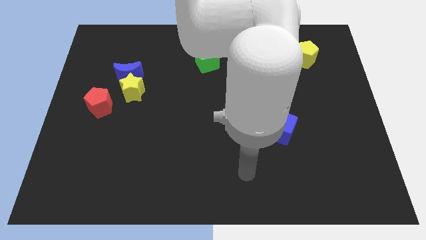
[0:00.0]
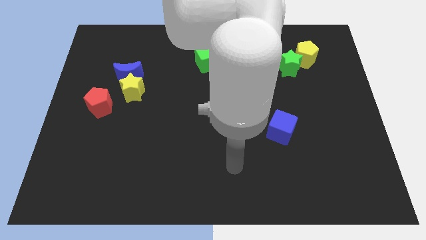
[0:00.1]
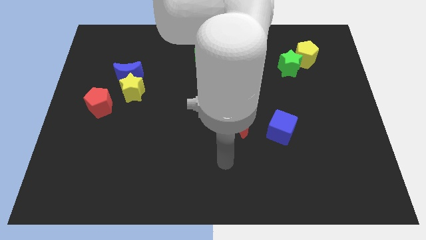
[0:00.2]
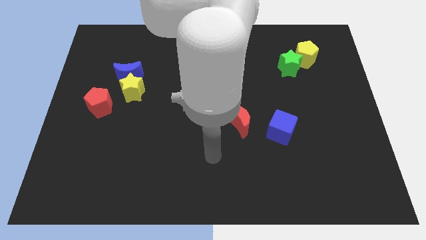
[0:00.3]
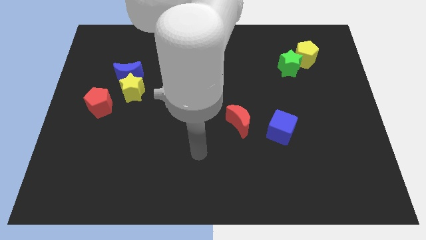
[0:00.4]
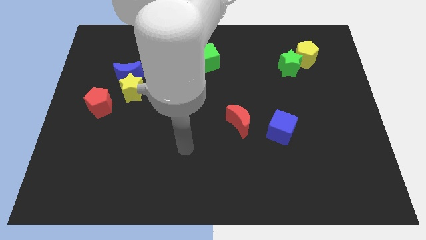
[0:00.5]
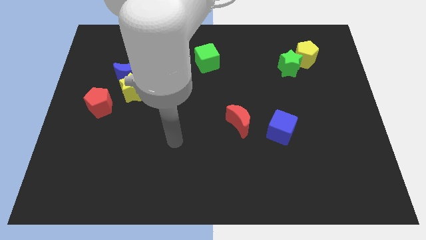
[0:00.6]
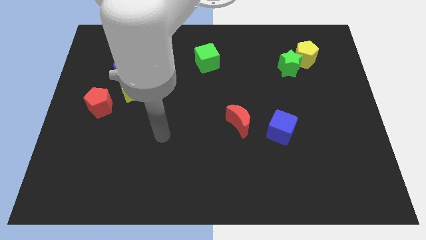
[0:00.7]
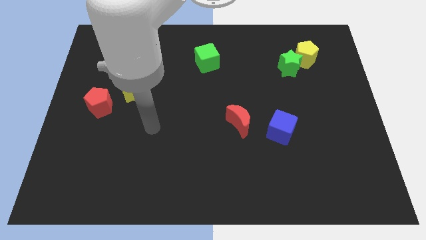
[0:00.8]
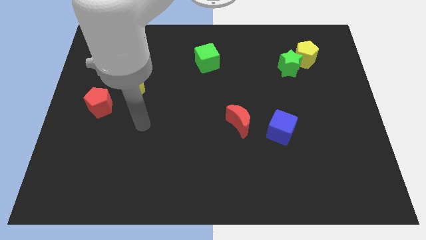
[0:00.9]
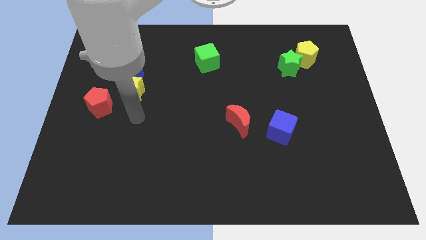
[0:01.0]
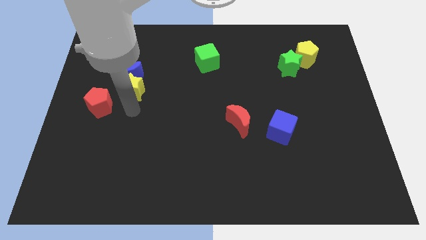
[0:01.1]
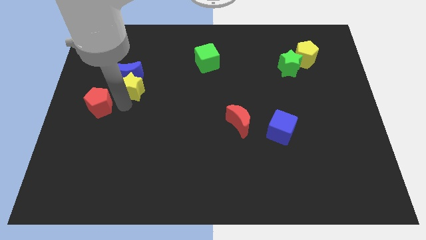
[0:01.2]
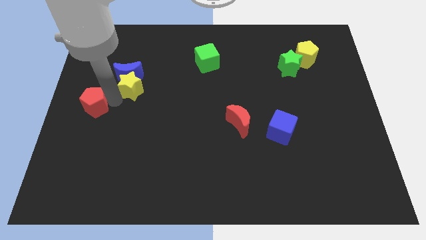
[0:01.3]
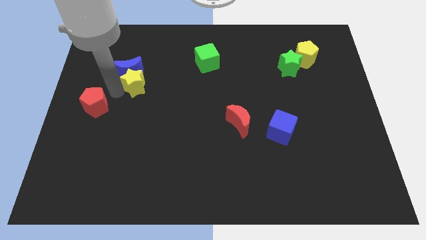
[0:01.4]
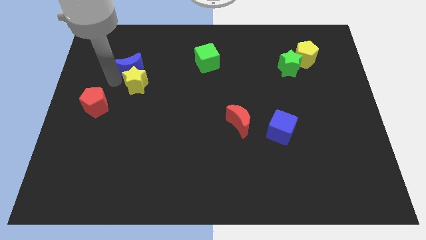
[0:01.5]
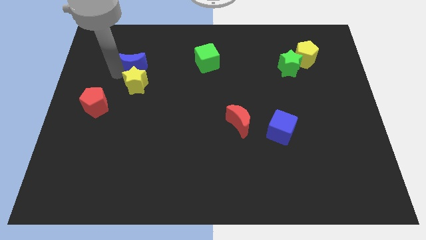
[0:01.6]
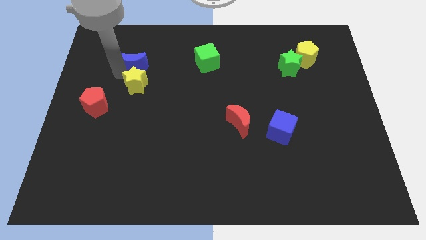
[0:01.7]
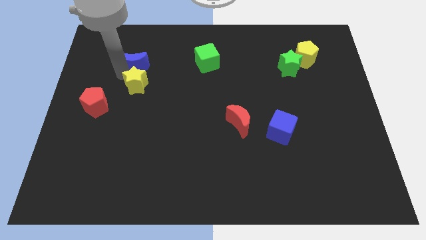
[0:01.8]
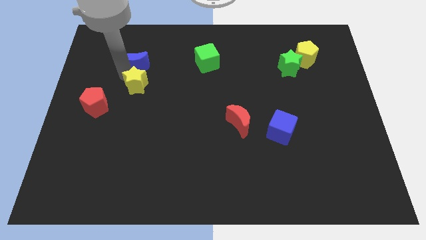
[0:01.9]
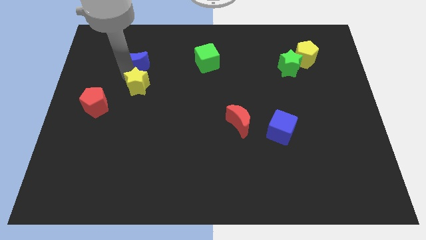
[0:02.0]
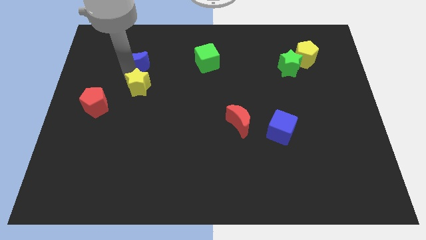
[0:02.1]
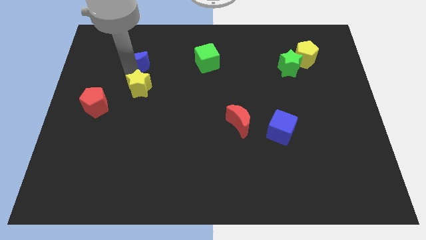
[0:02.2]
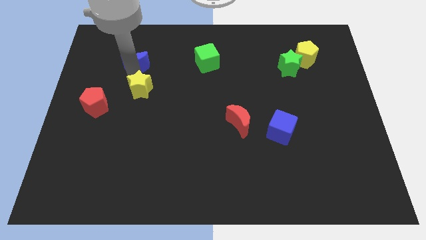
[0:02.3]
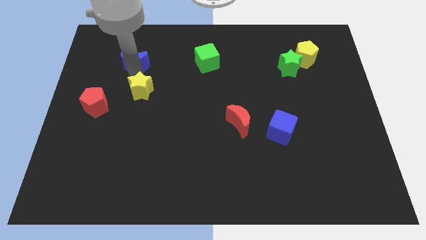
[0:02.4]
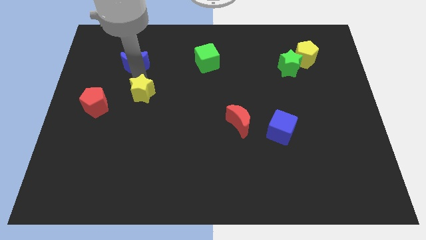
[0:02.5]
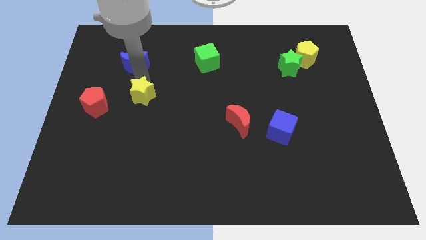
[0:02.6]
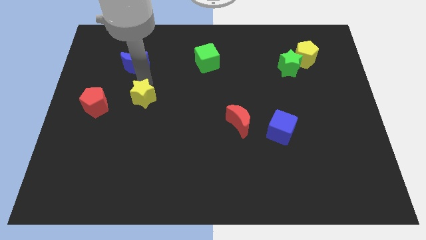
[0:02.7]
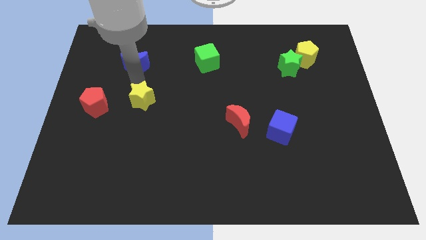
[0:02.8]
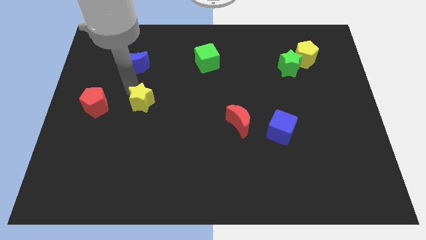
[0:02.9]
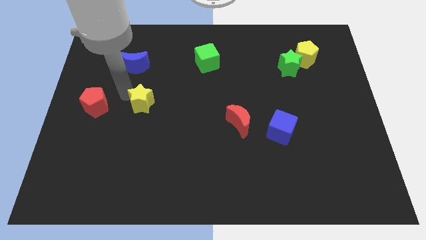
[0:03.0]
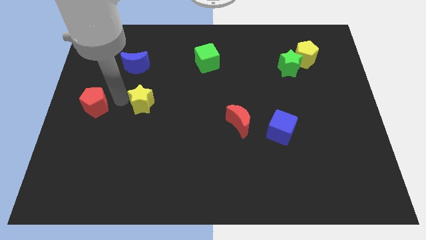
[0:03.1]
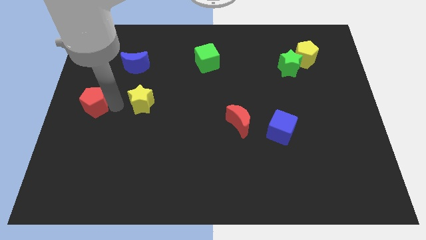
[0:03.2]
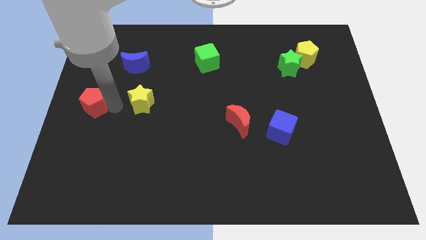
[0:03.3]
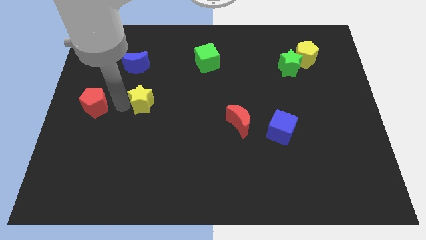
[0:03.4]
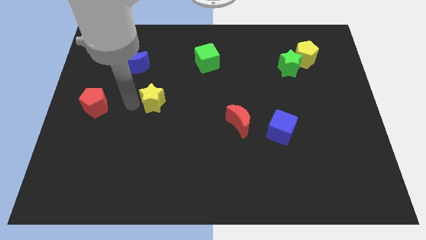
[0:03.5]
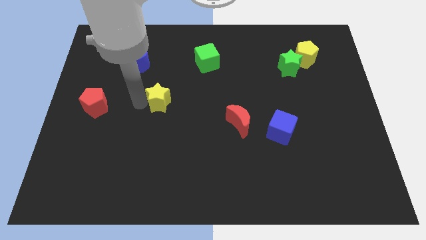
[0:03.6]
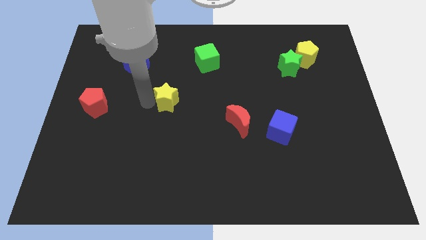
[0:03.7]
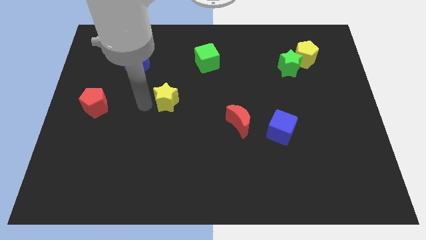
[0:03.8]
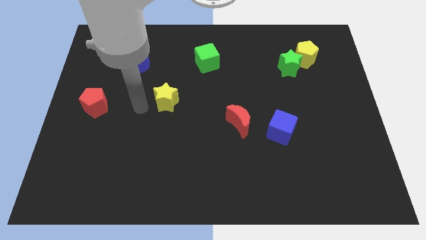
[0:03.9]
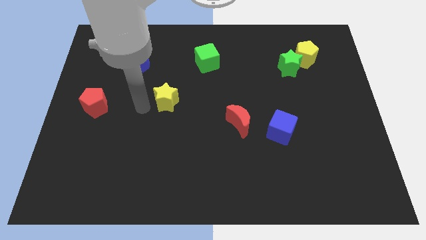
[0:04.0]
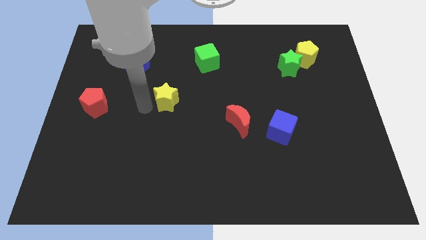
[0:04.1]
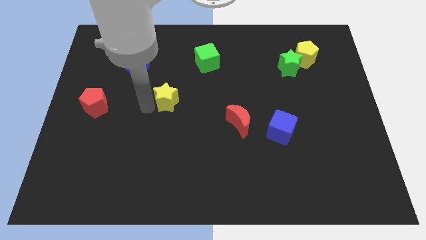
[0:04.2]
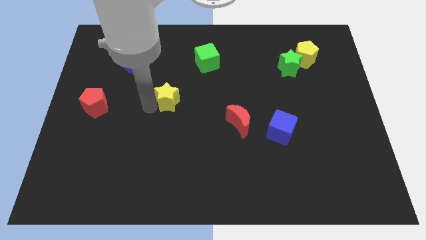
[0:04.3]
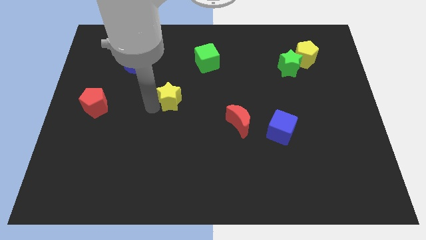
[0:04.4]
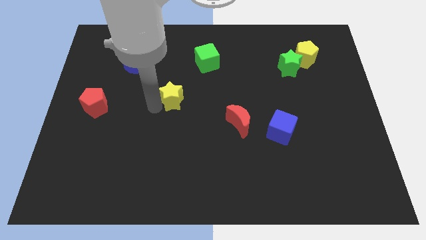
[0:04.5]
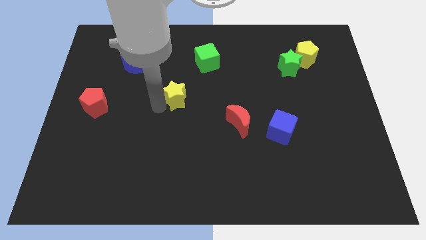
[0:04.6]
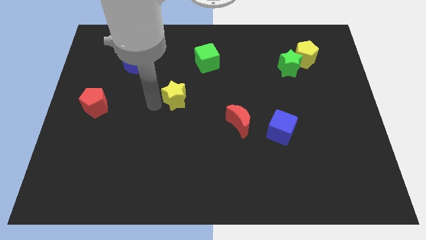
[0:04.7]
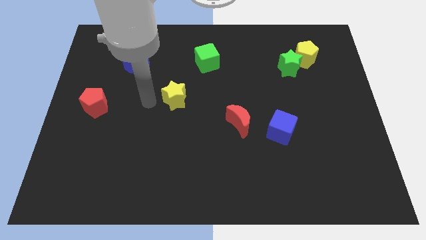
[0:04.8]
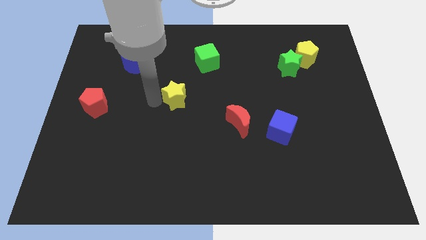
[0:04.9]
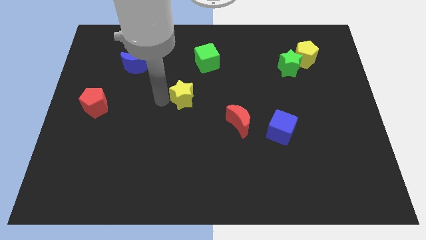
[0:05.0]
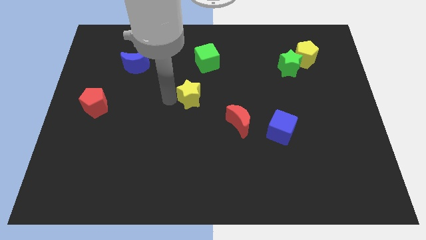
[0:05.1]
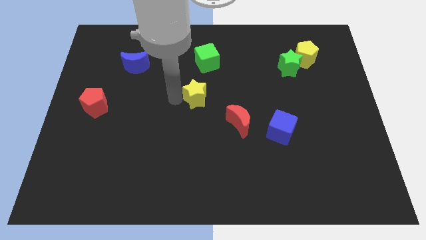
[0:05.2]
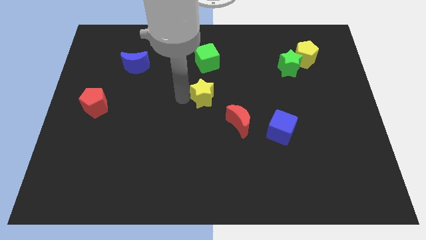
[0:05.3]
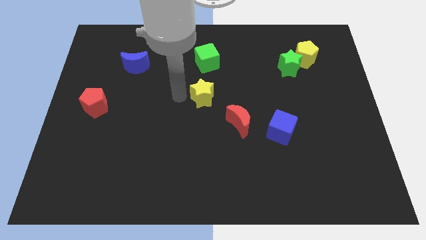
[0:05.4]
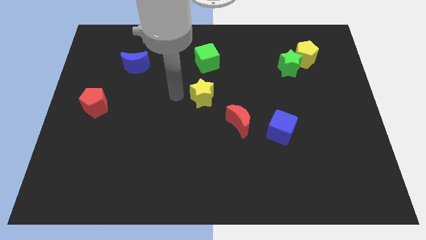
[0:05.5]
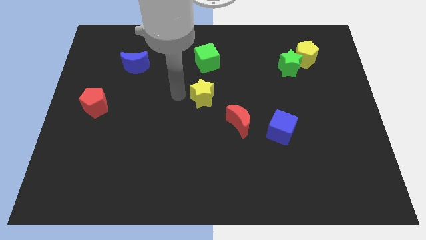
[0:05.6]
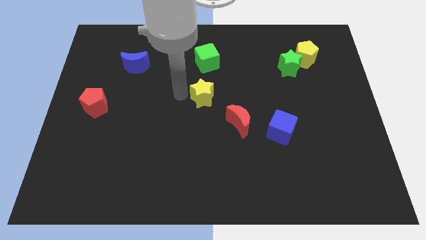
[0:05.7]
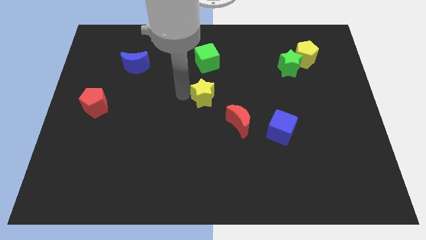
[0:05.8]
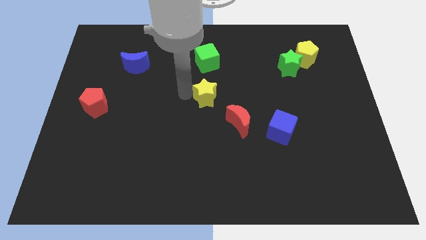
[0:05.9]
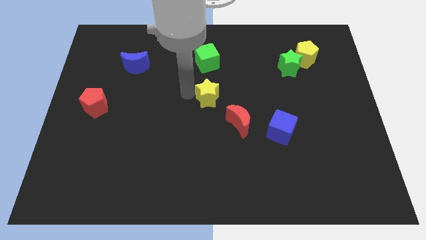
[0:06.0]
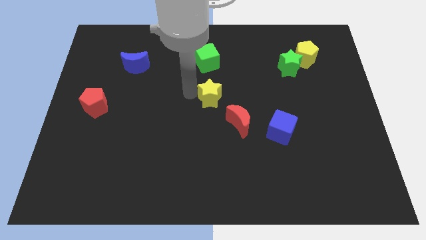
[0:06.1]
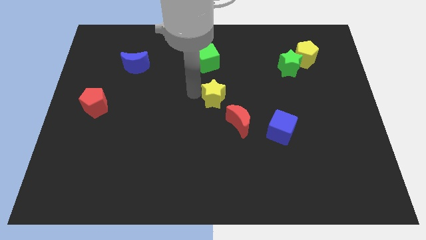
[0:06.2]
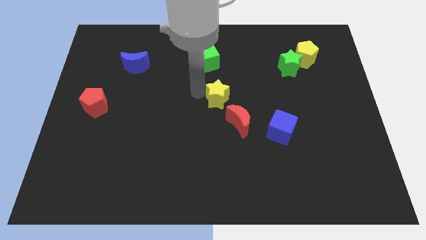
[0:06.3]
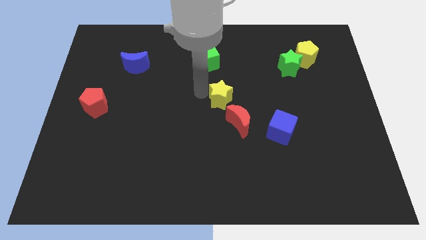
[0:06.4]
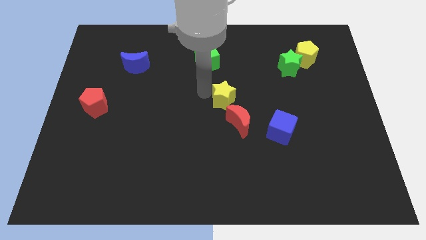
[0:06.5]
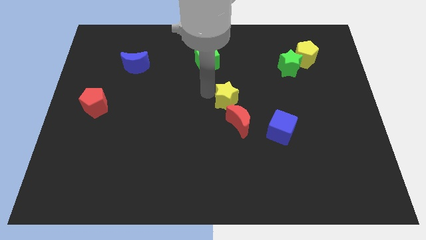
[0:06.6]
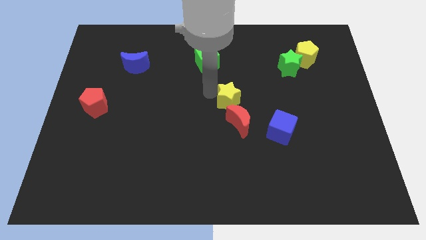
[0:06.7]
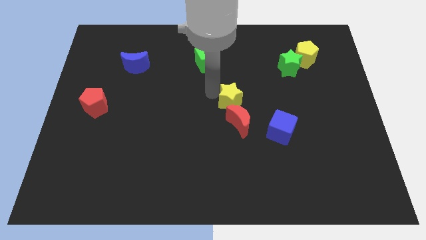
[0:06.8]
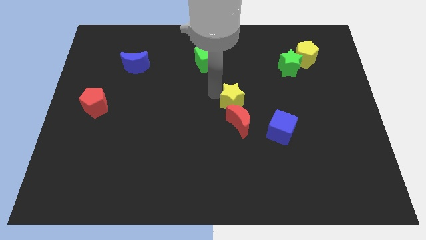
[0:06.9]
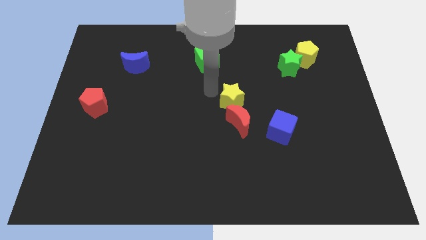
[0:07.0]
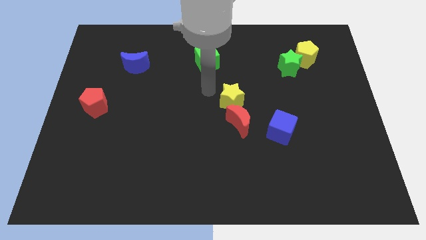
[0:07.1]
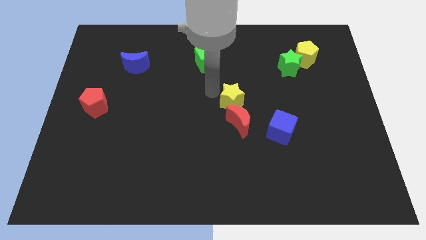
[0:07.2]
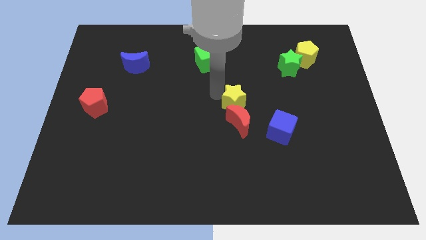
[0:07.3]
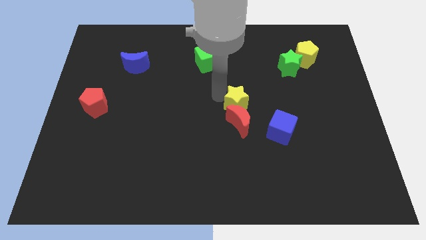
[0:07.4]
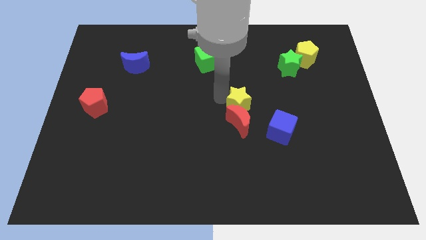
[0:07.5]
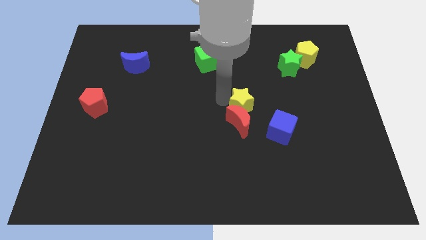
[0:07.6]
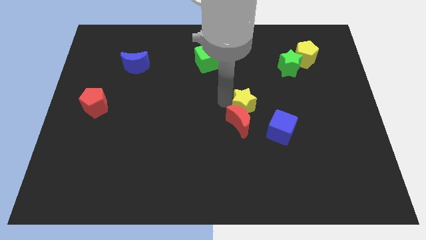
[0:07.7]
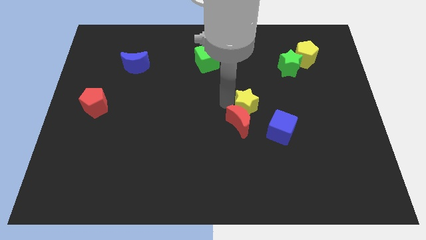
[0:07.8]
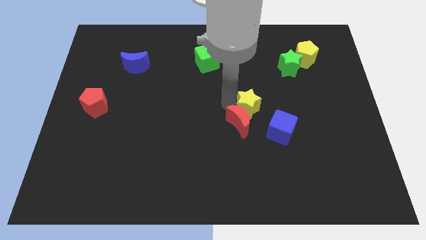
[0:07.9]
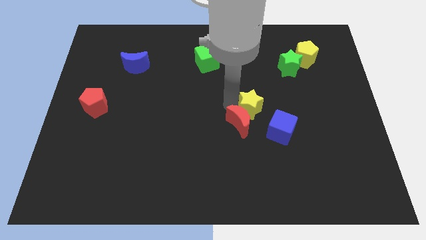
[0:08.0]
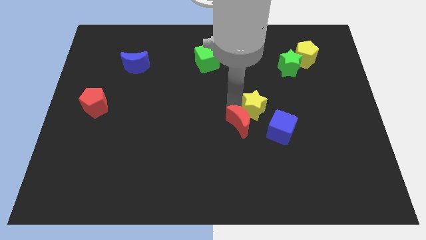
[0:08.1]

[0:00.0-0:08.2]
slide the yellow star right of the red moon
